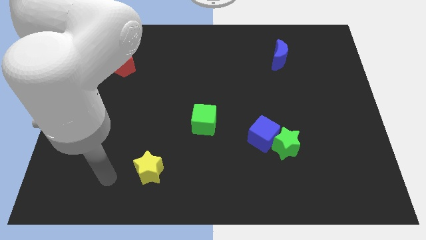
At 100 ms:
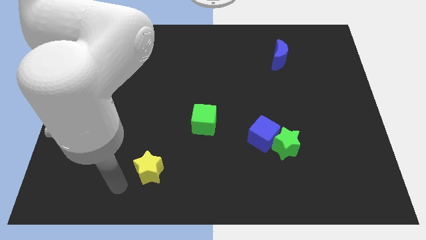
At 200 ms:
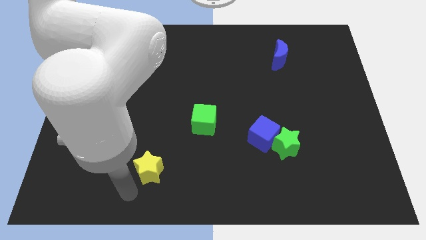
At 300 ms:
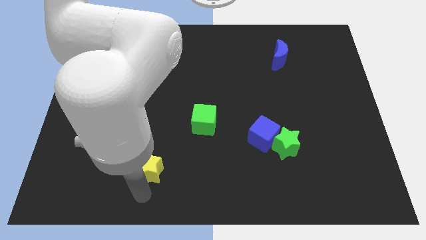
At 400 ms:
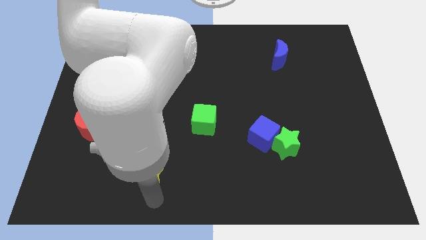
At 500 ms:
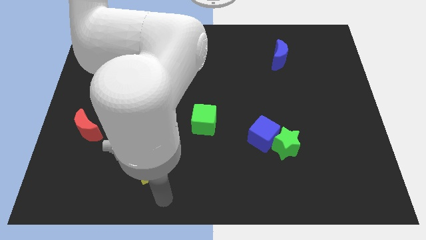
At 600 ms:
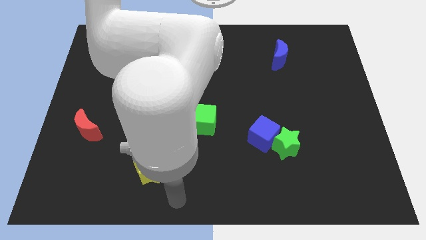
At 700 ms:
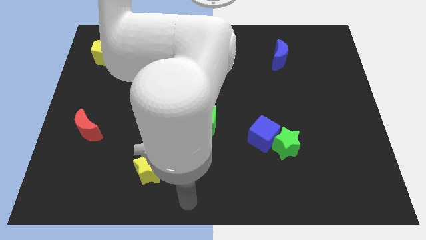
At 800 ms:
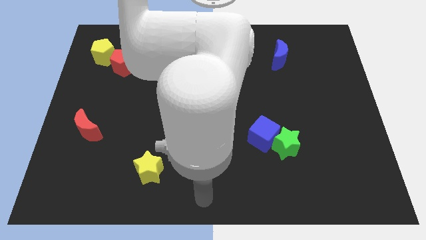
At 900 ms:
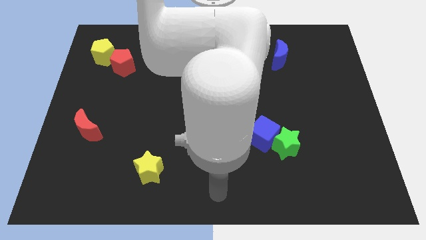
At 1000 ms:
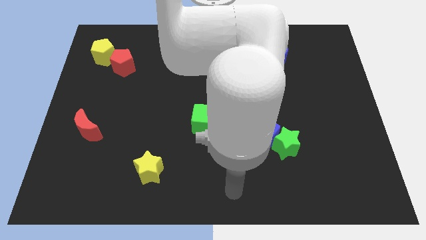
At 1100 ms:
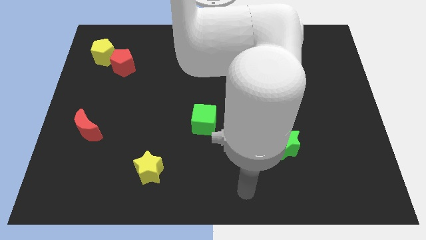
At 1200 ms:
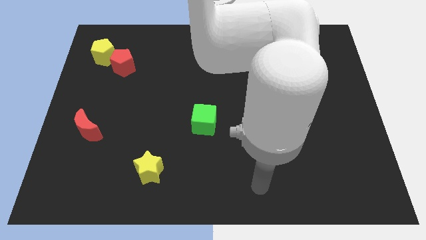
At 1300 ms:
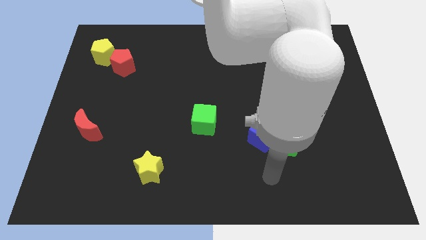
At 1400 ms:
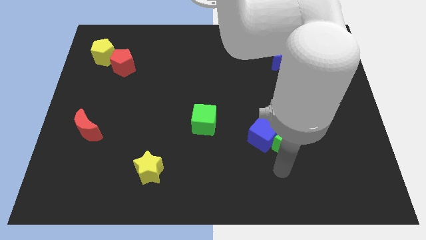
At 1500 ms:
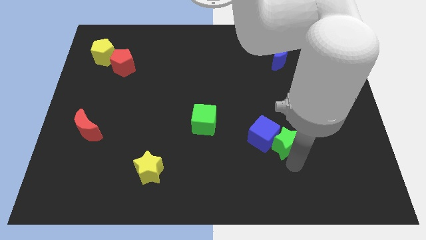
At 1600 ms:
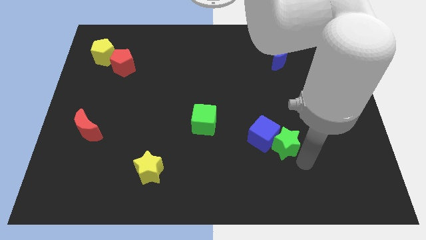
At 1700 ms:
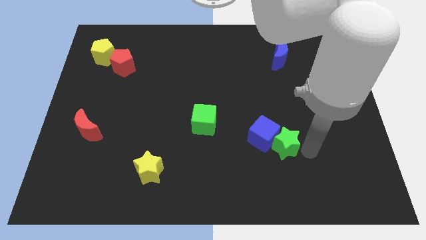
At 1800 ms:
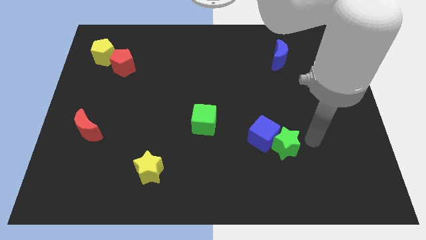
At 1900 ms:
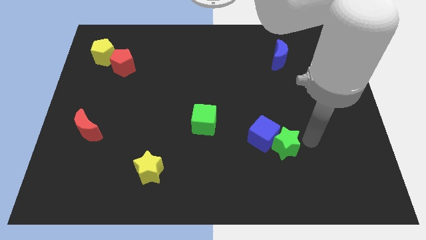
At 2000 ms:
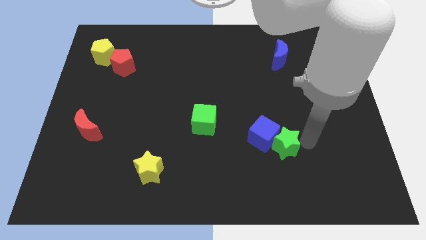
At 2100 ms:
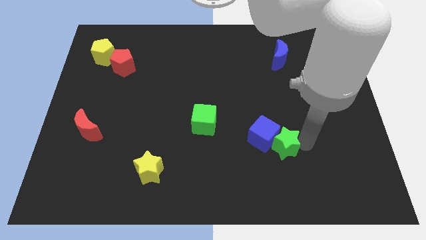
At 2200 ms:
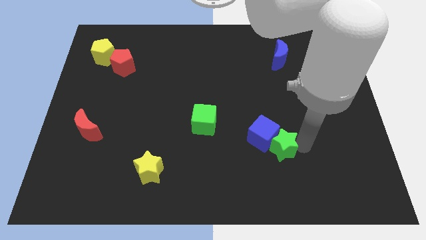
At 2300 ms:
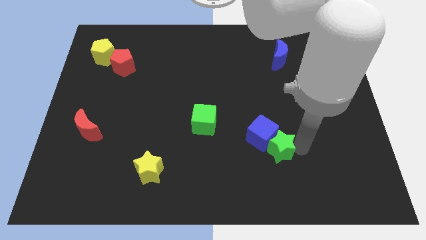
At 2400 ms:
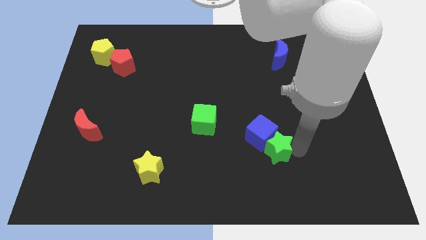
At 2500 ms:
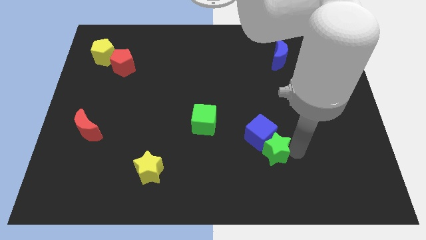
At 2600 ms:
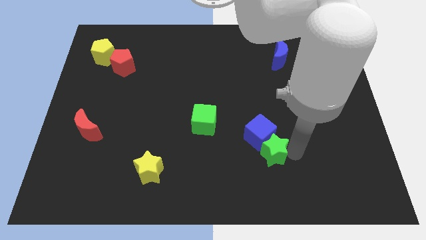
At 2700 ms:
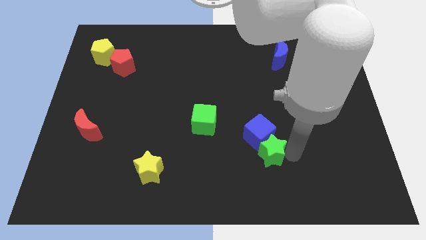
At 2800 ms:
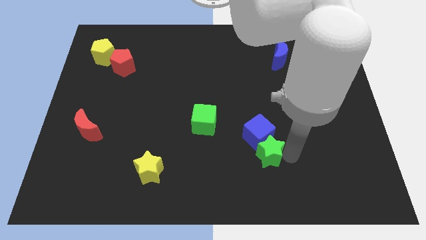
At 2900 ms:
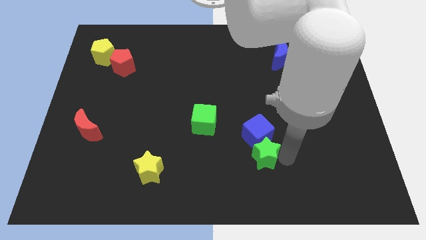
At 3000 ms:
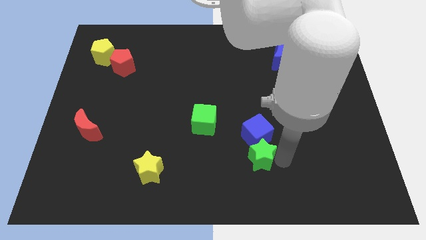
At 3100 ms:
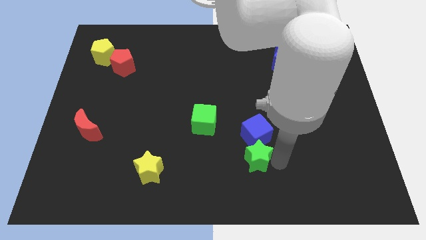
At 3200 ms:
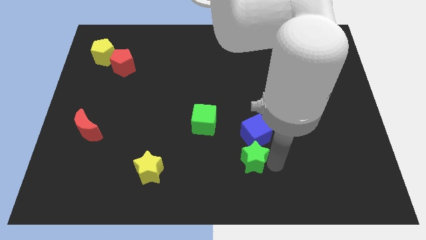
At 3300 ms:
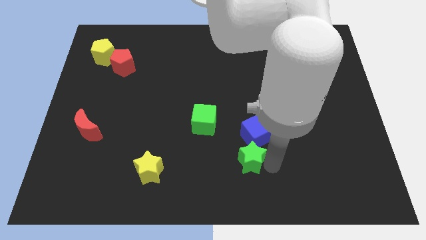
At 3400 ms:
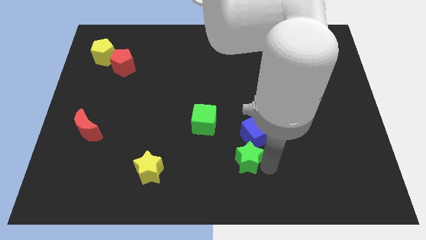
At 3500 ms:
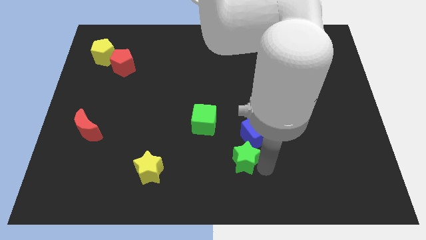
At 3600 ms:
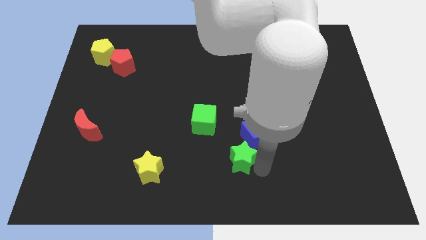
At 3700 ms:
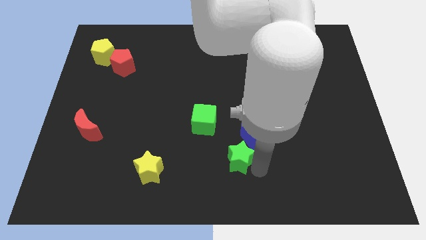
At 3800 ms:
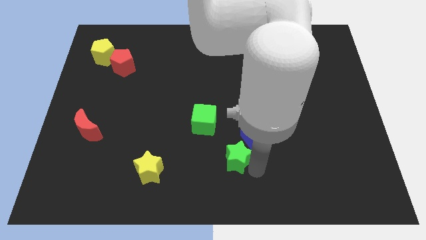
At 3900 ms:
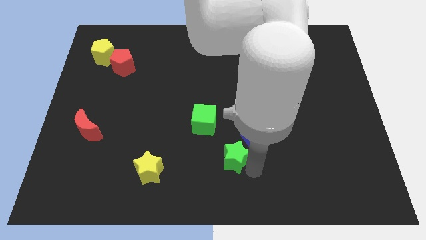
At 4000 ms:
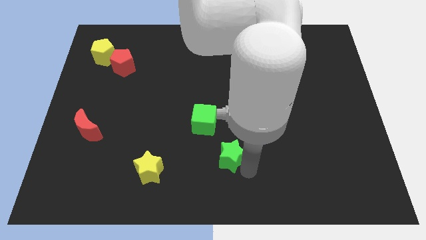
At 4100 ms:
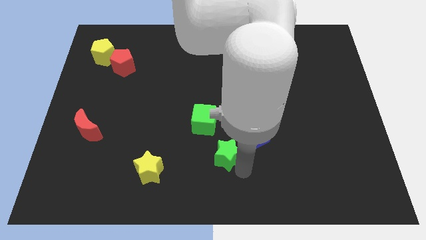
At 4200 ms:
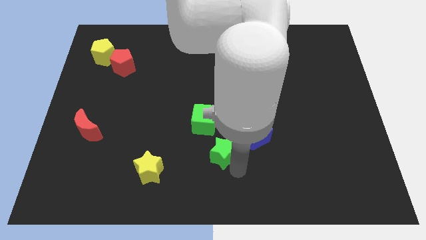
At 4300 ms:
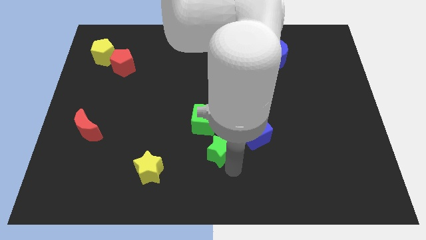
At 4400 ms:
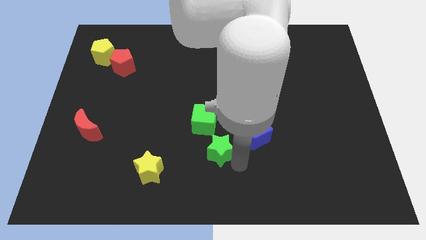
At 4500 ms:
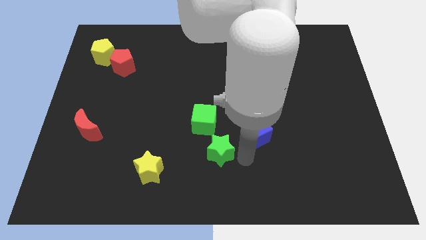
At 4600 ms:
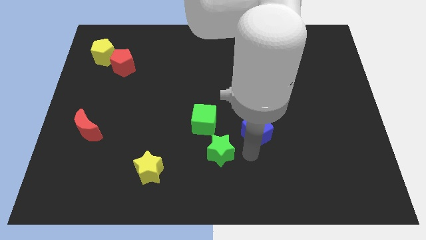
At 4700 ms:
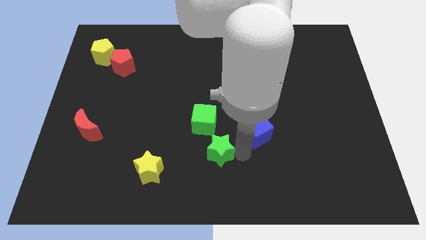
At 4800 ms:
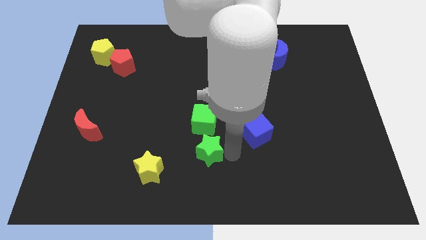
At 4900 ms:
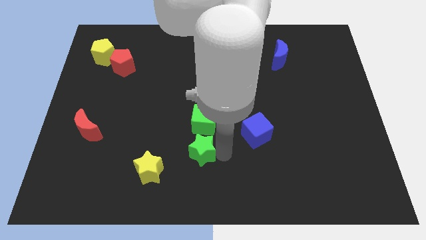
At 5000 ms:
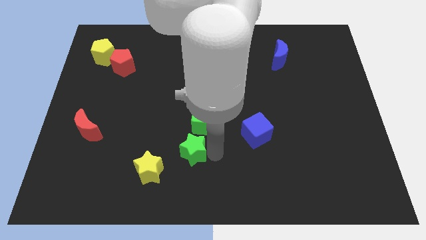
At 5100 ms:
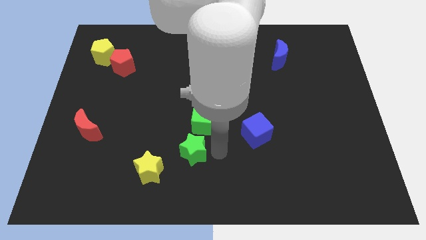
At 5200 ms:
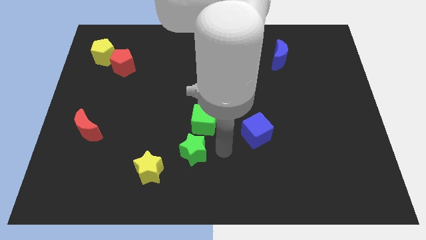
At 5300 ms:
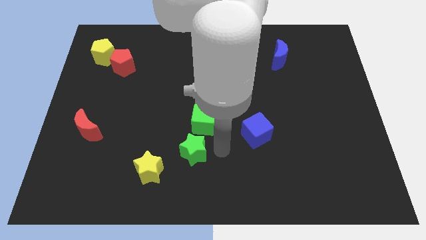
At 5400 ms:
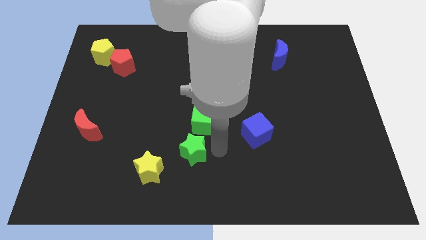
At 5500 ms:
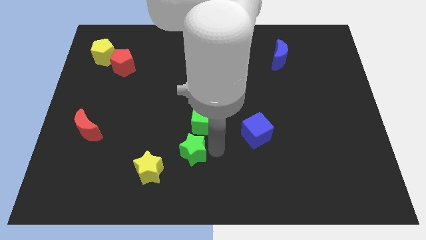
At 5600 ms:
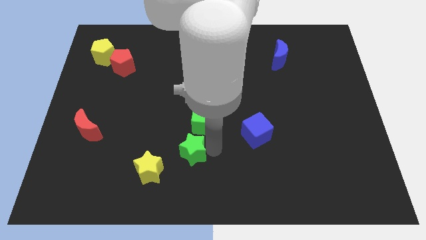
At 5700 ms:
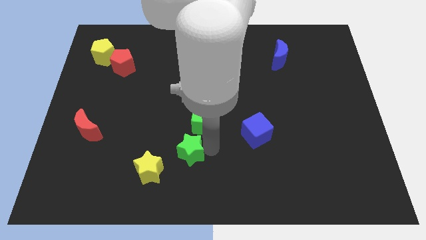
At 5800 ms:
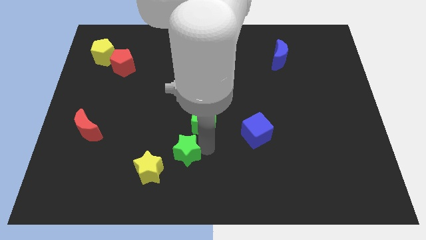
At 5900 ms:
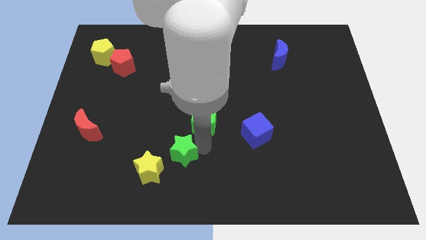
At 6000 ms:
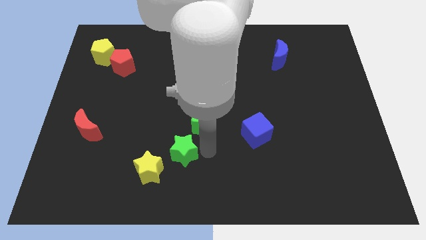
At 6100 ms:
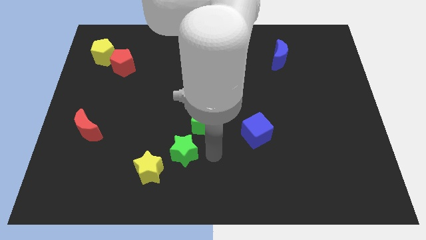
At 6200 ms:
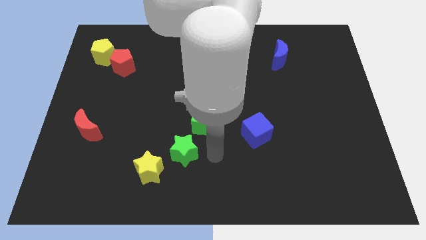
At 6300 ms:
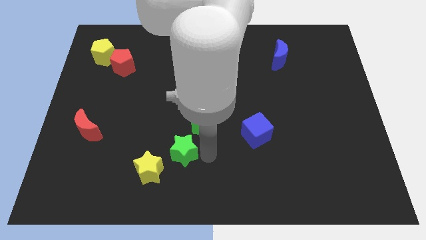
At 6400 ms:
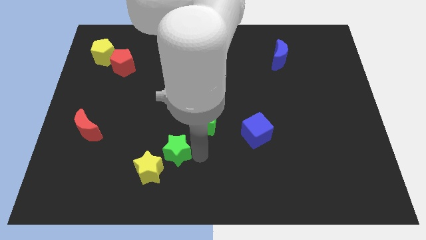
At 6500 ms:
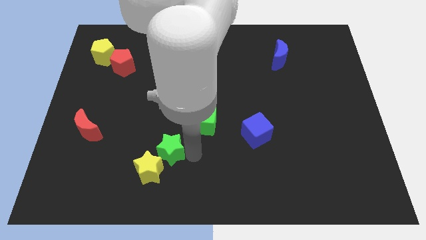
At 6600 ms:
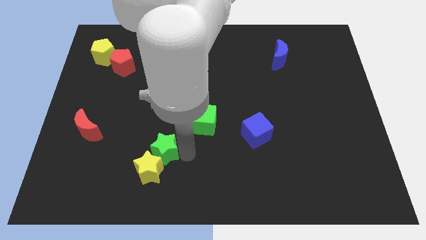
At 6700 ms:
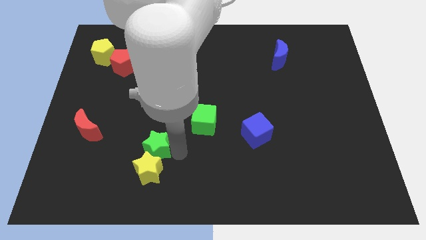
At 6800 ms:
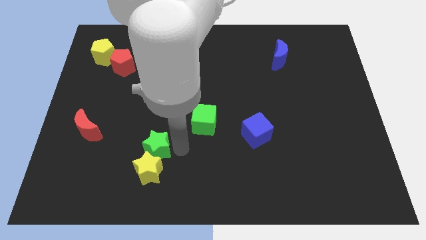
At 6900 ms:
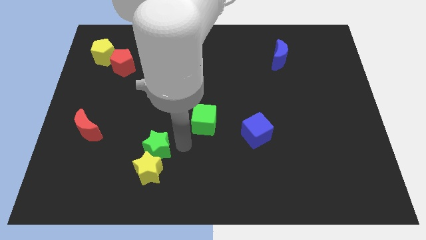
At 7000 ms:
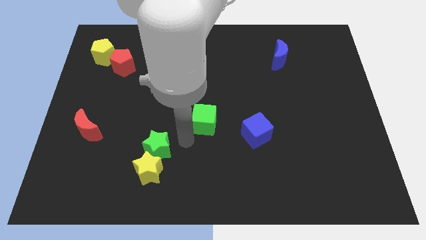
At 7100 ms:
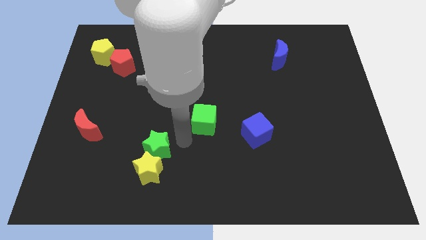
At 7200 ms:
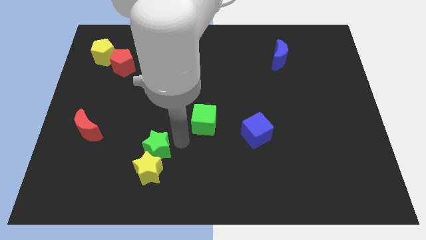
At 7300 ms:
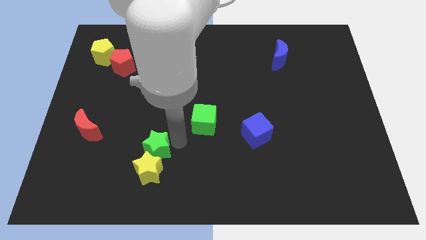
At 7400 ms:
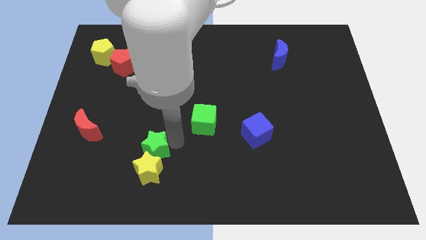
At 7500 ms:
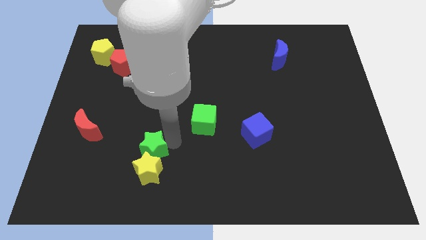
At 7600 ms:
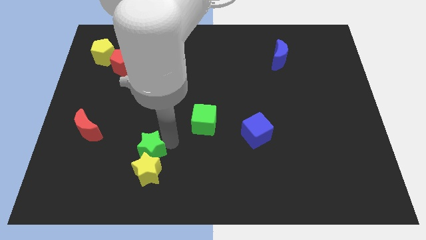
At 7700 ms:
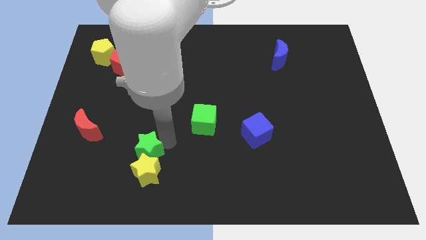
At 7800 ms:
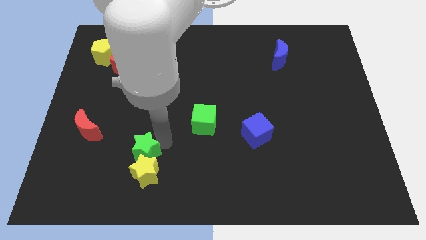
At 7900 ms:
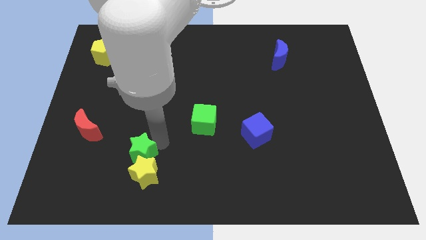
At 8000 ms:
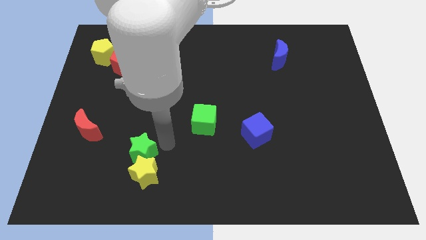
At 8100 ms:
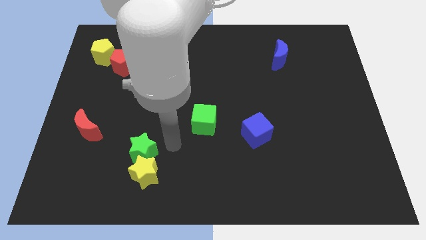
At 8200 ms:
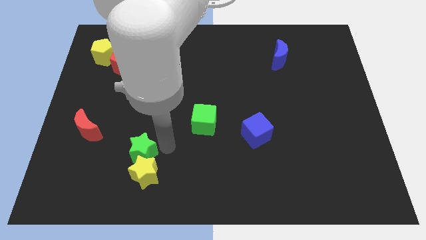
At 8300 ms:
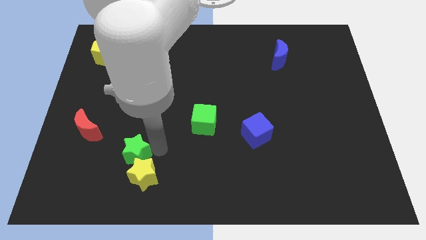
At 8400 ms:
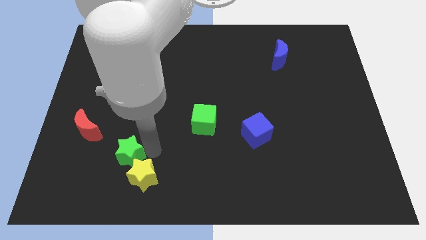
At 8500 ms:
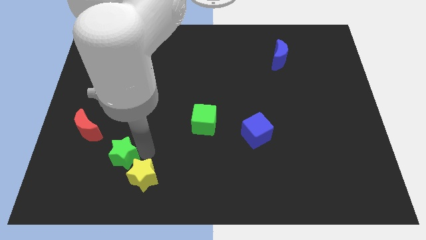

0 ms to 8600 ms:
put the green star left of the yellow star
